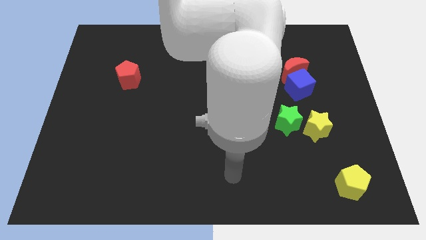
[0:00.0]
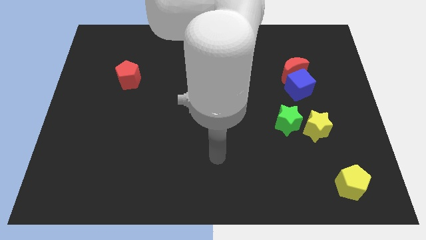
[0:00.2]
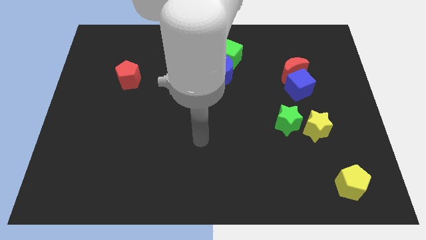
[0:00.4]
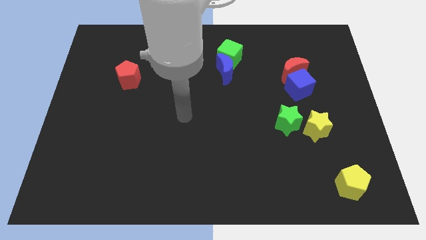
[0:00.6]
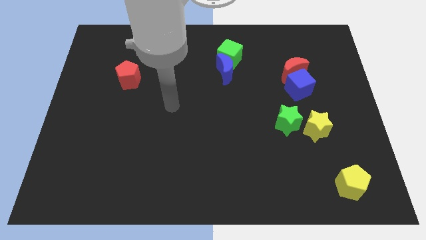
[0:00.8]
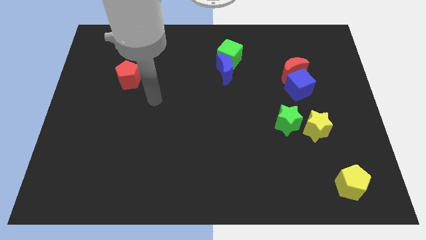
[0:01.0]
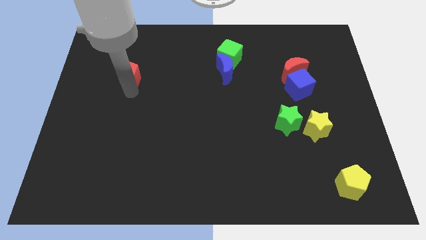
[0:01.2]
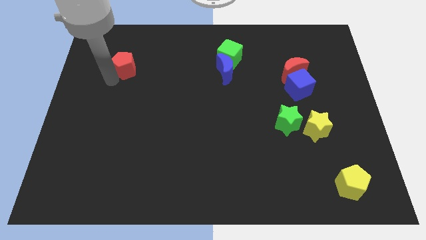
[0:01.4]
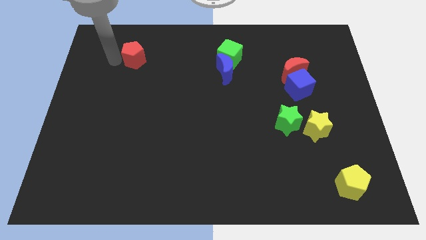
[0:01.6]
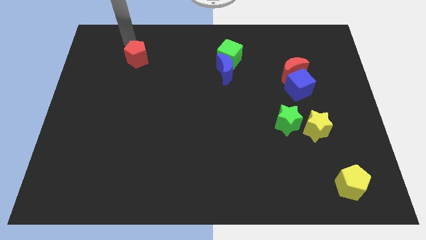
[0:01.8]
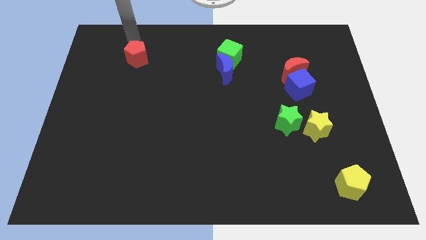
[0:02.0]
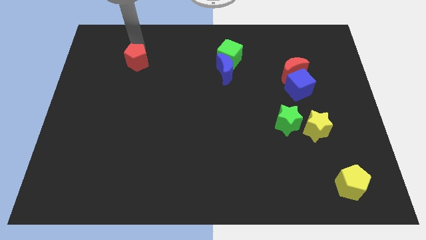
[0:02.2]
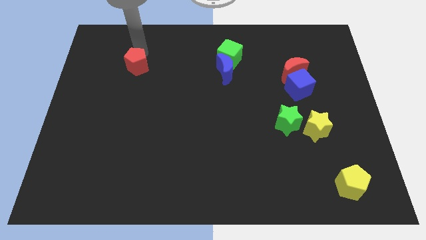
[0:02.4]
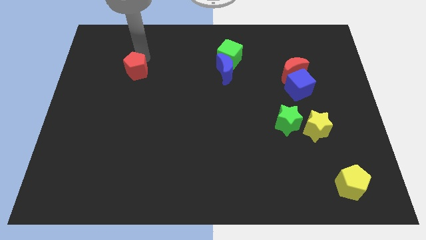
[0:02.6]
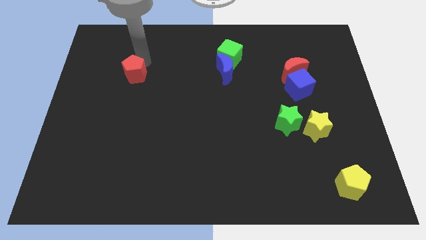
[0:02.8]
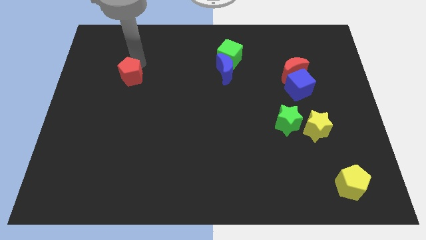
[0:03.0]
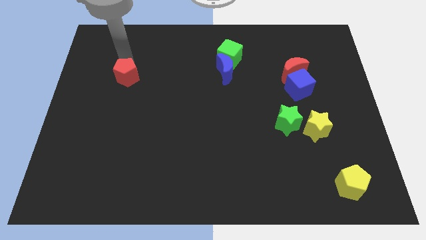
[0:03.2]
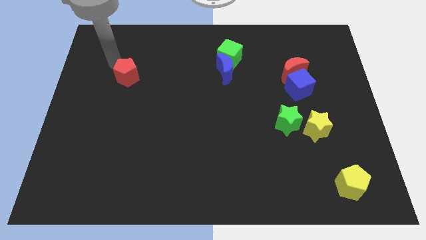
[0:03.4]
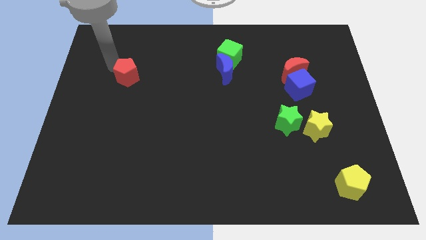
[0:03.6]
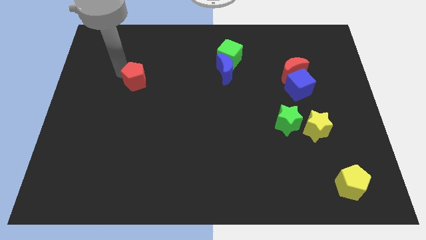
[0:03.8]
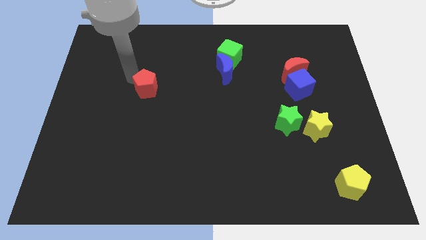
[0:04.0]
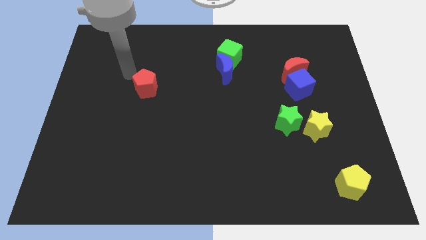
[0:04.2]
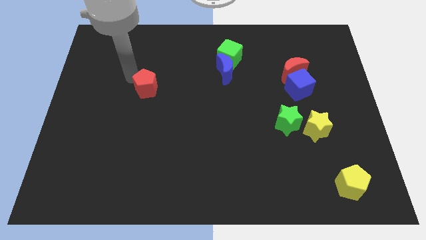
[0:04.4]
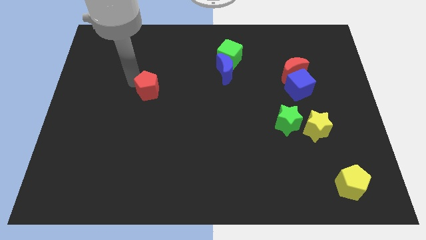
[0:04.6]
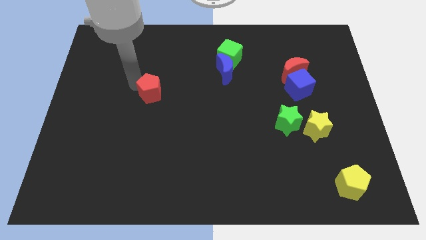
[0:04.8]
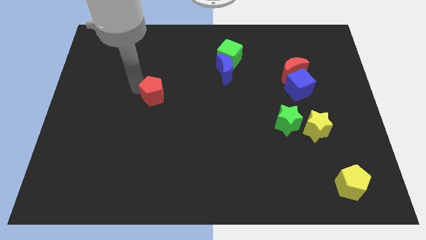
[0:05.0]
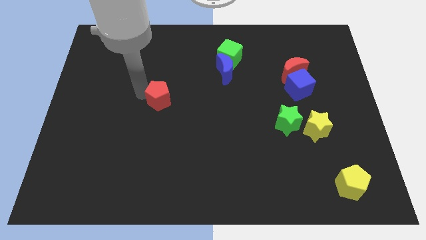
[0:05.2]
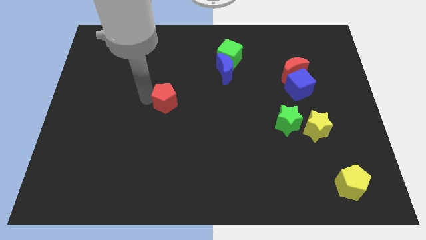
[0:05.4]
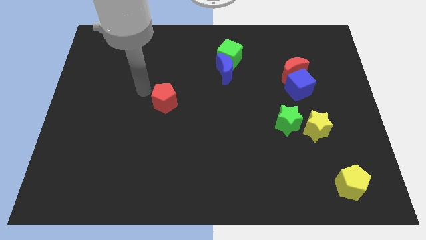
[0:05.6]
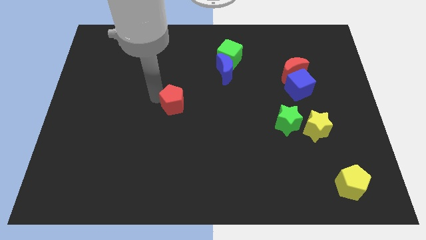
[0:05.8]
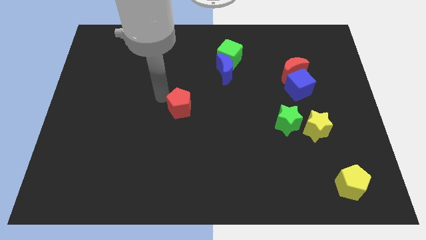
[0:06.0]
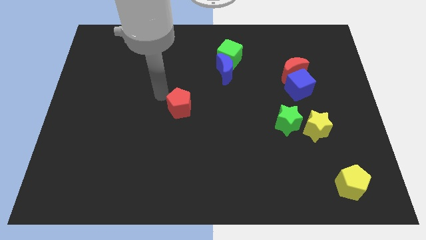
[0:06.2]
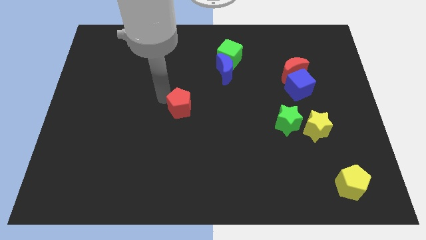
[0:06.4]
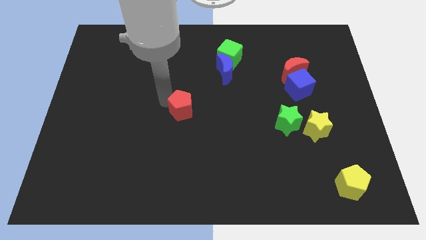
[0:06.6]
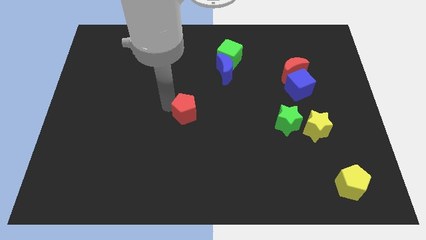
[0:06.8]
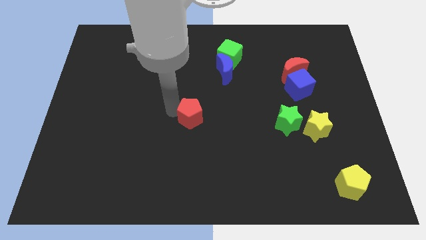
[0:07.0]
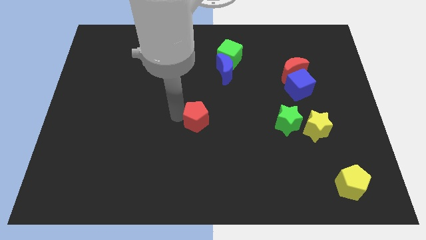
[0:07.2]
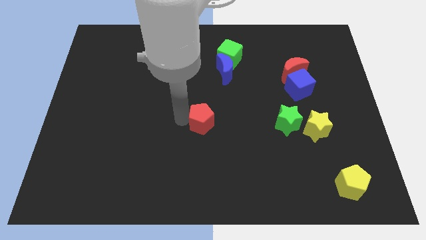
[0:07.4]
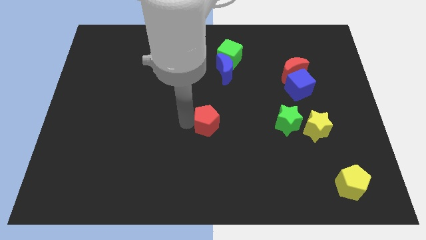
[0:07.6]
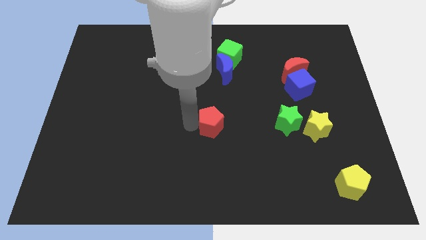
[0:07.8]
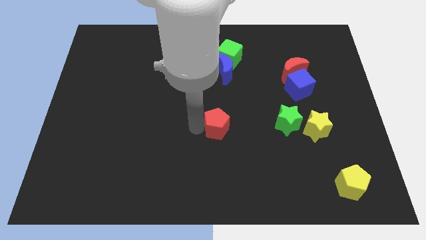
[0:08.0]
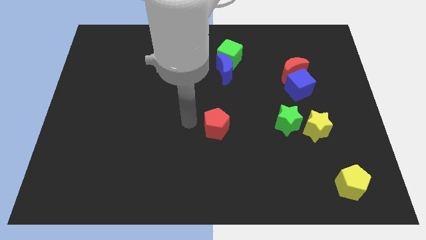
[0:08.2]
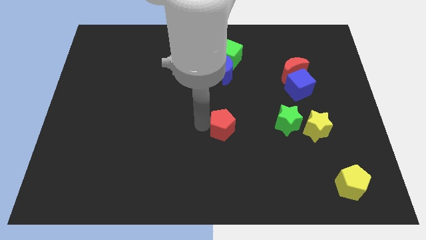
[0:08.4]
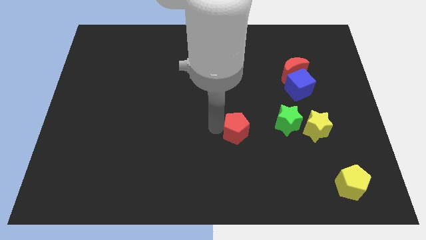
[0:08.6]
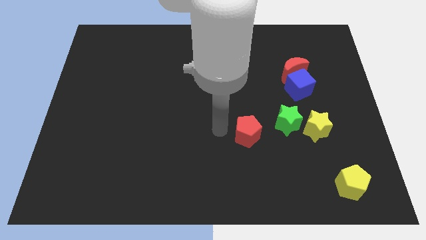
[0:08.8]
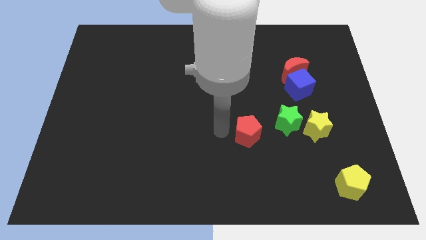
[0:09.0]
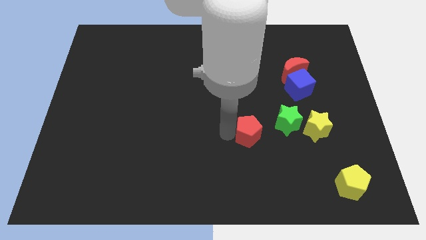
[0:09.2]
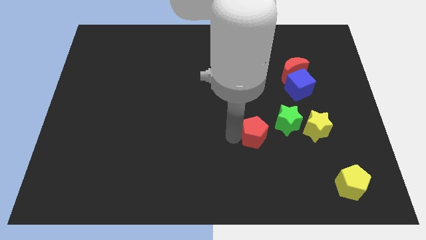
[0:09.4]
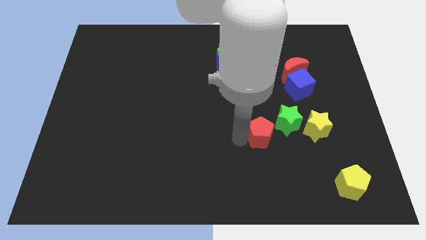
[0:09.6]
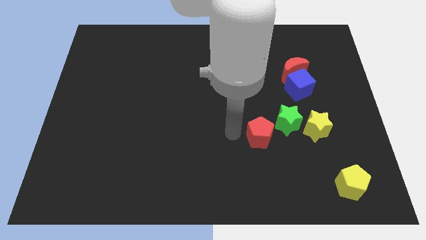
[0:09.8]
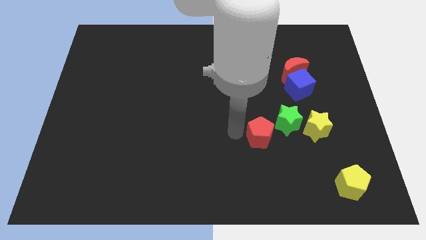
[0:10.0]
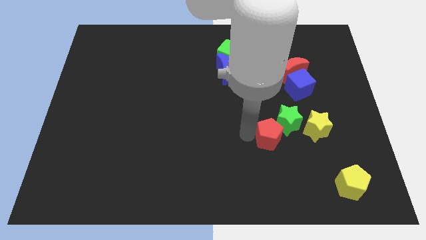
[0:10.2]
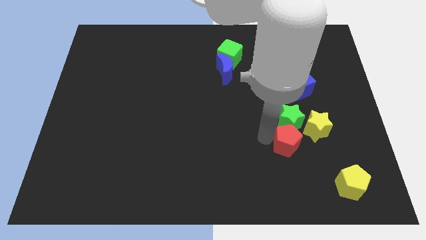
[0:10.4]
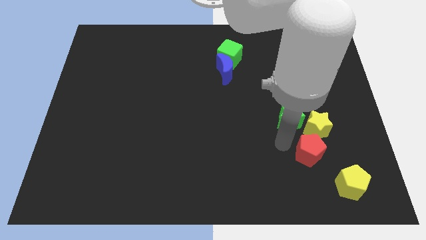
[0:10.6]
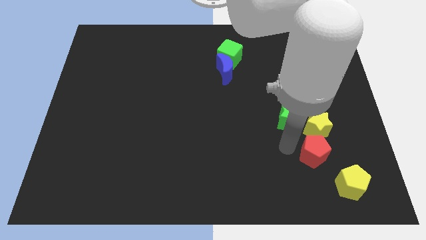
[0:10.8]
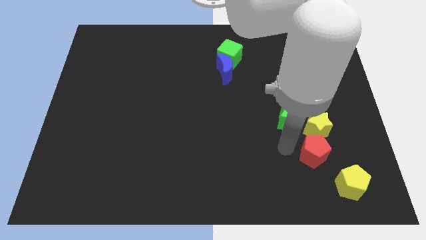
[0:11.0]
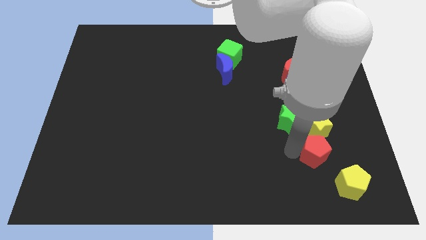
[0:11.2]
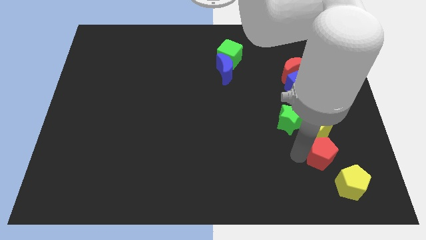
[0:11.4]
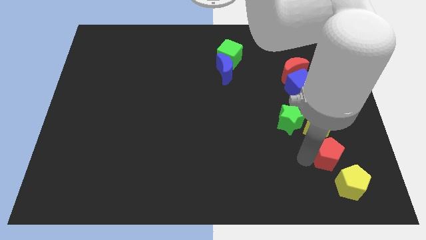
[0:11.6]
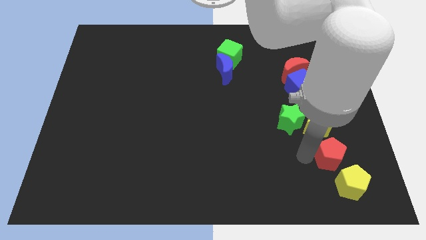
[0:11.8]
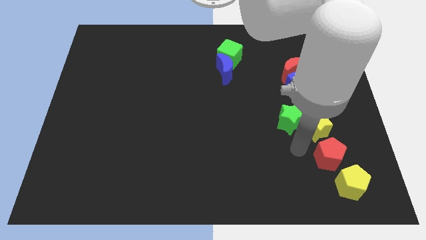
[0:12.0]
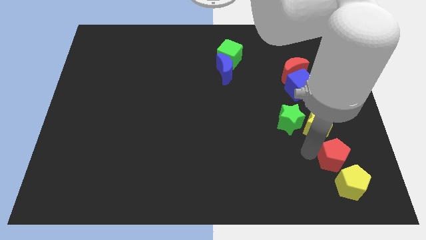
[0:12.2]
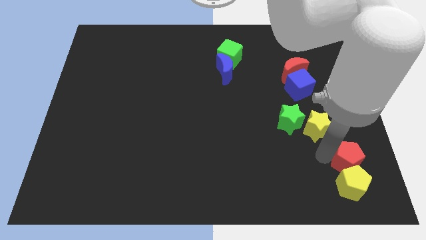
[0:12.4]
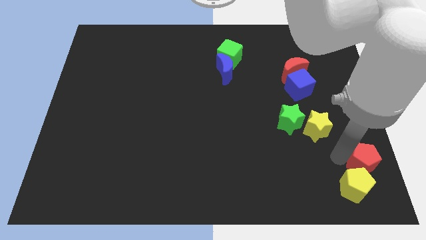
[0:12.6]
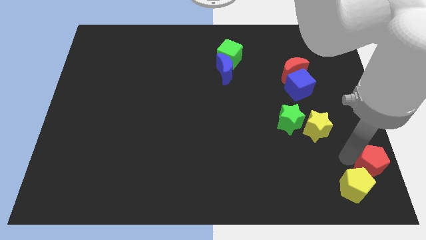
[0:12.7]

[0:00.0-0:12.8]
push the red pentagon to the bottom right

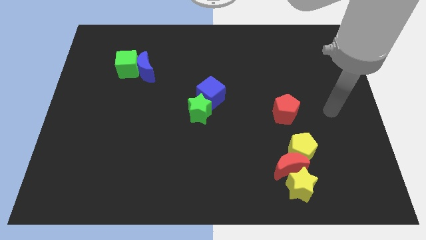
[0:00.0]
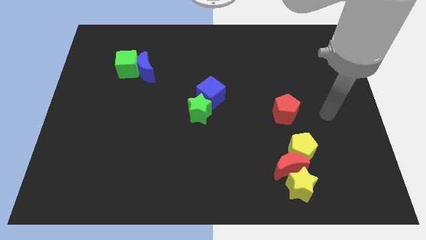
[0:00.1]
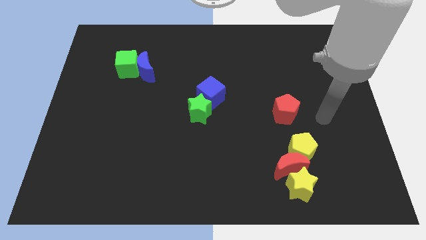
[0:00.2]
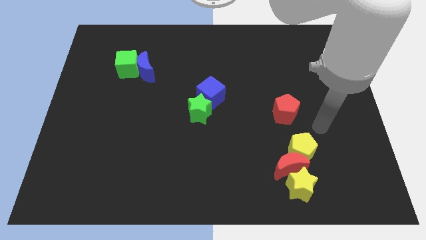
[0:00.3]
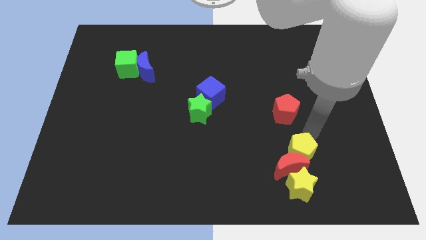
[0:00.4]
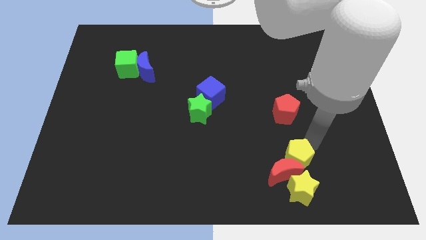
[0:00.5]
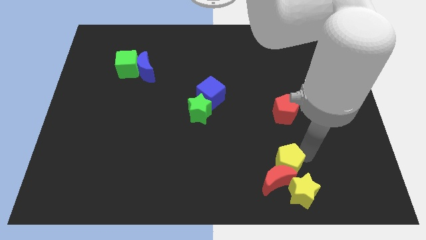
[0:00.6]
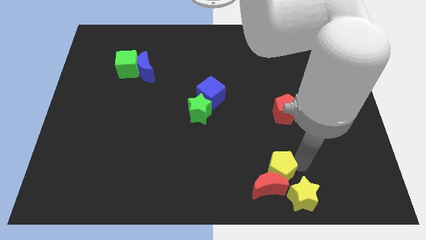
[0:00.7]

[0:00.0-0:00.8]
put the red moon to the bottom side
